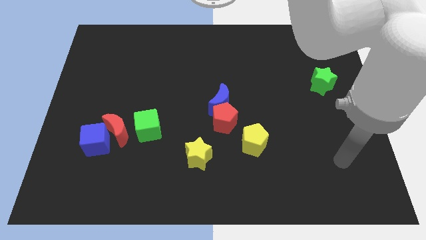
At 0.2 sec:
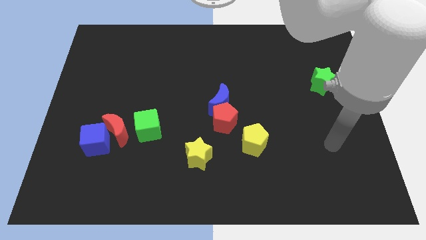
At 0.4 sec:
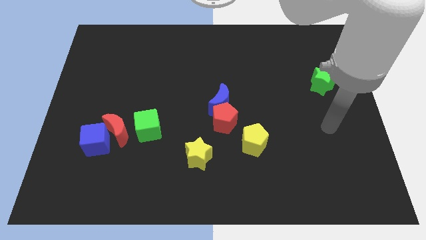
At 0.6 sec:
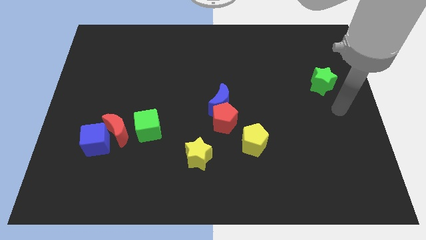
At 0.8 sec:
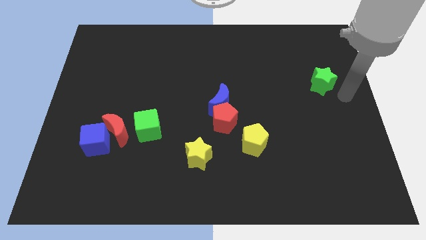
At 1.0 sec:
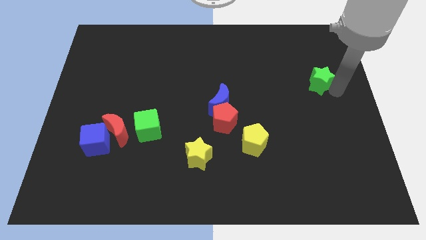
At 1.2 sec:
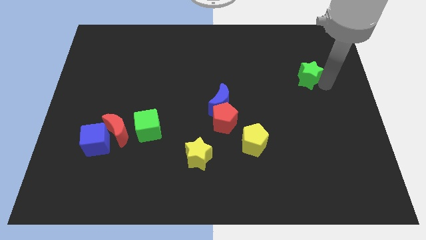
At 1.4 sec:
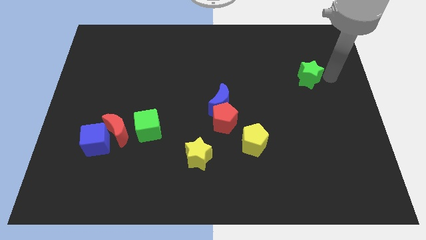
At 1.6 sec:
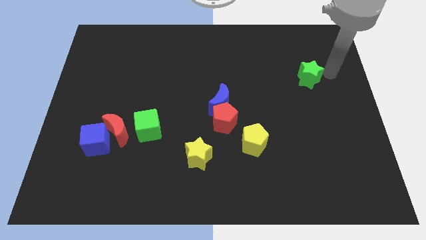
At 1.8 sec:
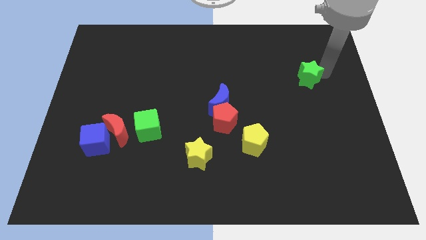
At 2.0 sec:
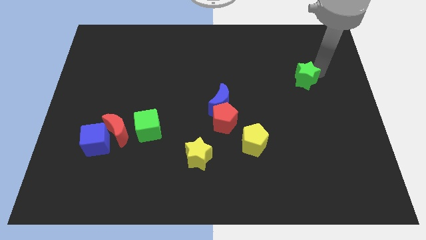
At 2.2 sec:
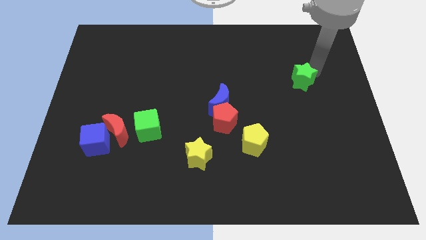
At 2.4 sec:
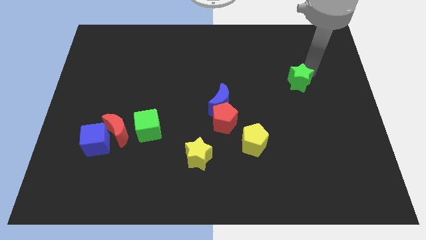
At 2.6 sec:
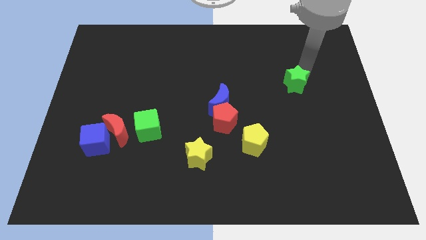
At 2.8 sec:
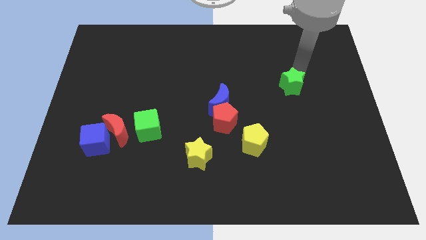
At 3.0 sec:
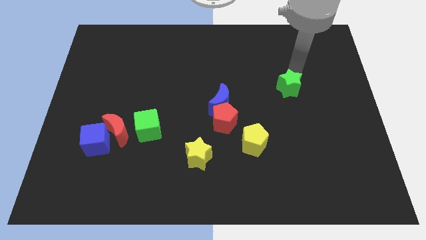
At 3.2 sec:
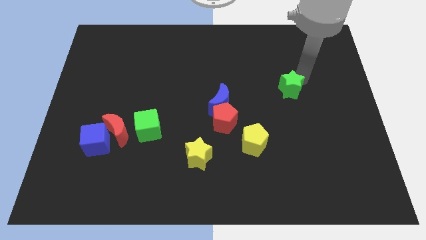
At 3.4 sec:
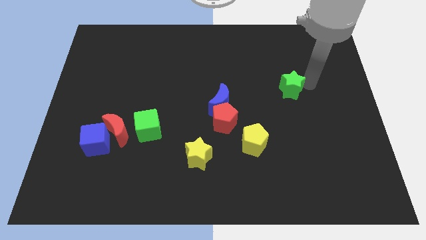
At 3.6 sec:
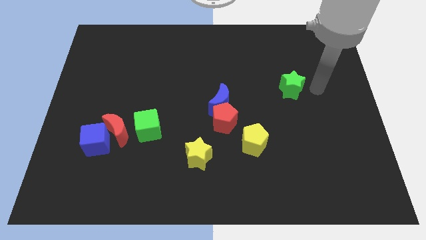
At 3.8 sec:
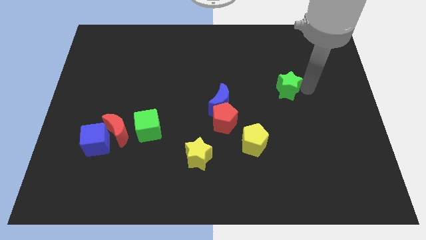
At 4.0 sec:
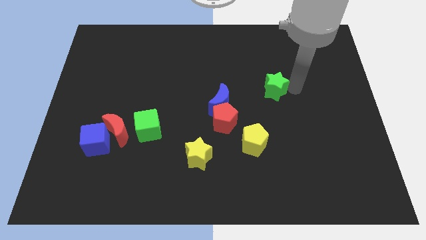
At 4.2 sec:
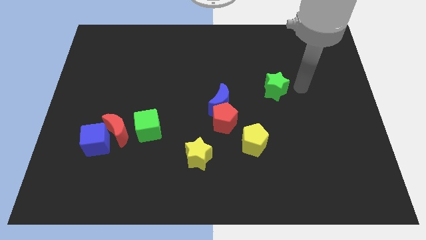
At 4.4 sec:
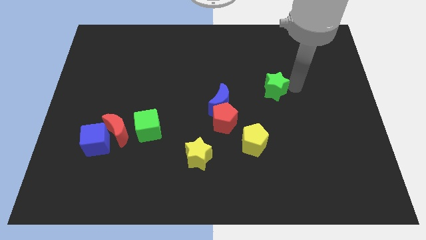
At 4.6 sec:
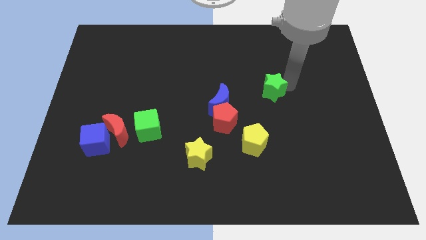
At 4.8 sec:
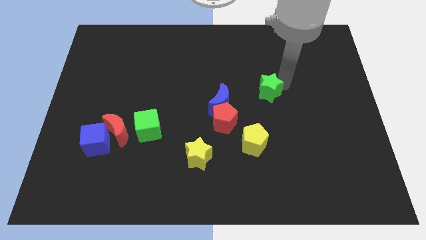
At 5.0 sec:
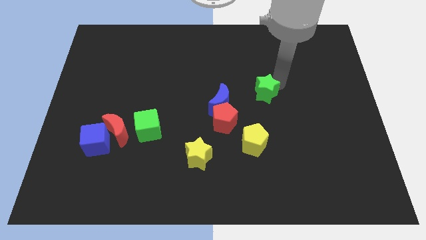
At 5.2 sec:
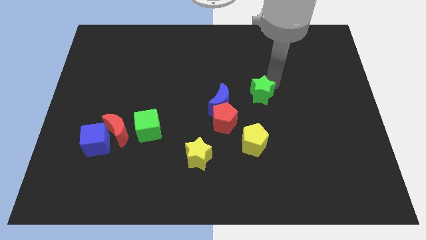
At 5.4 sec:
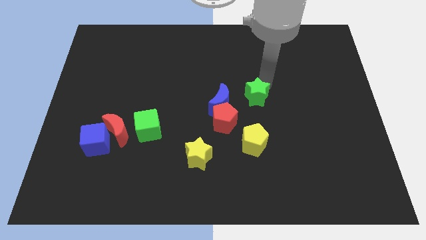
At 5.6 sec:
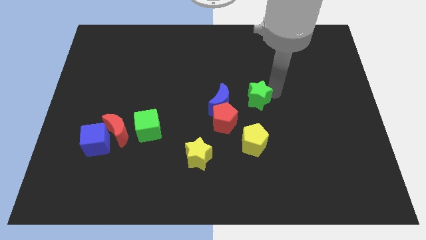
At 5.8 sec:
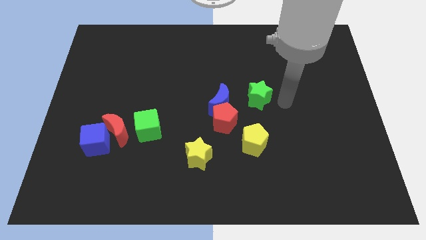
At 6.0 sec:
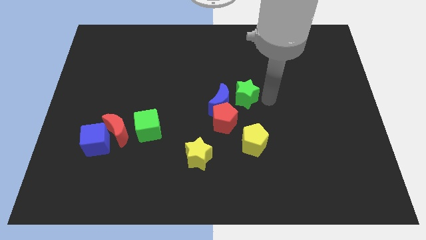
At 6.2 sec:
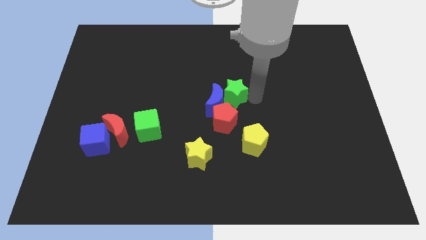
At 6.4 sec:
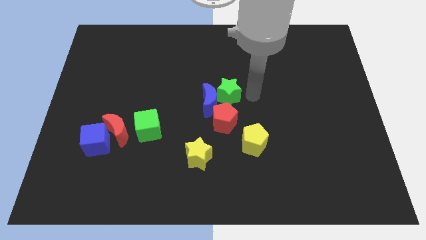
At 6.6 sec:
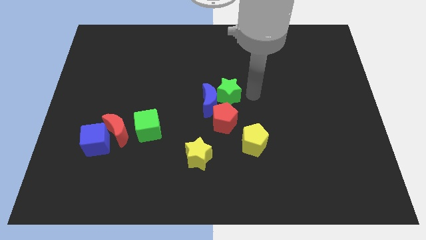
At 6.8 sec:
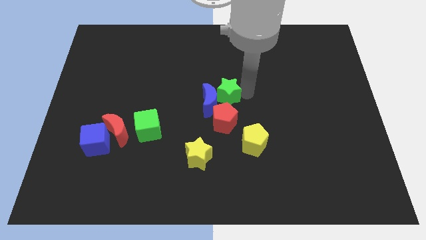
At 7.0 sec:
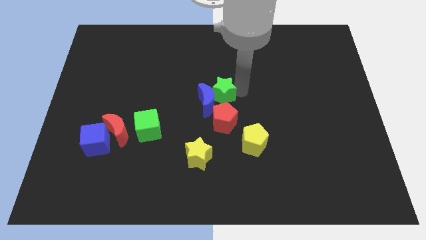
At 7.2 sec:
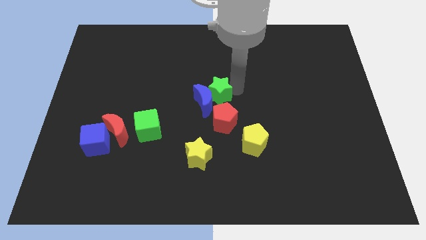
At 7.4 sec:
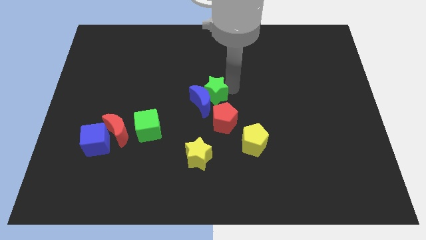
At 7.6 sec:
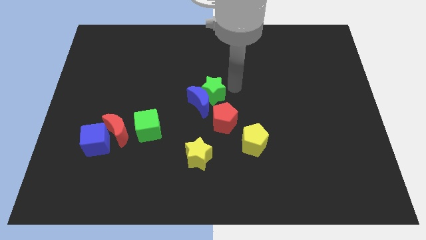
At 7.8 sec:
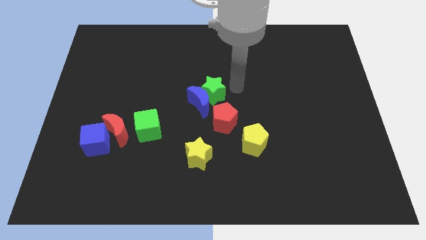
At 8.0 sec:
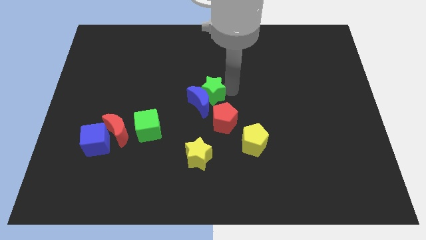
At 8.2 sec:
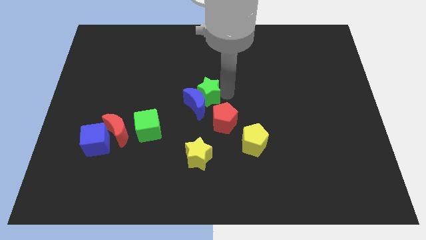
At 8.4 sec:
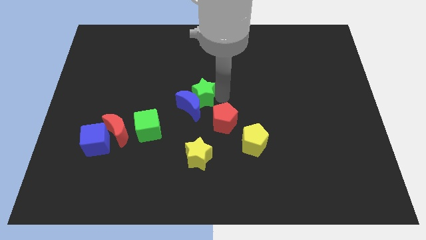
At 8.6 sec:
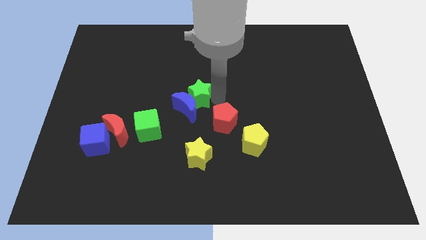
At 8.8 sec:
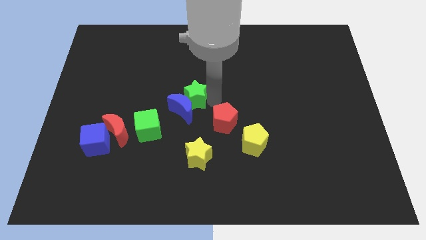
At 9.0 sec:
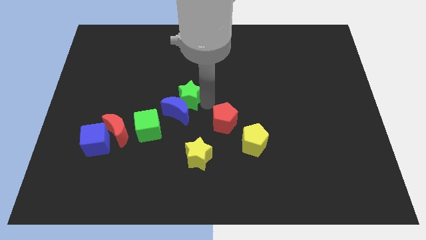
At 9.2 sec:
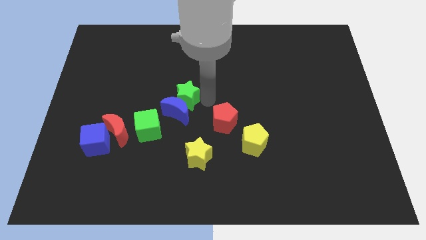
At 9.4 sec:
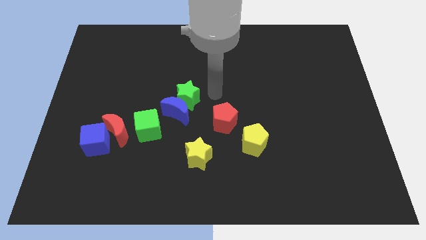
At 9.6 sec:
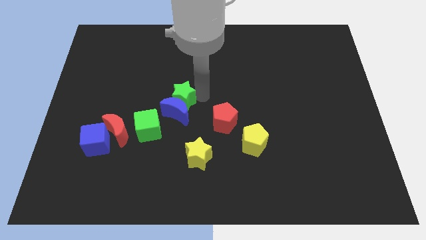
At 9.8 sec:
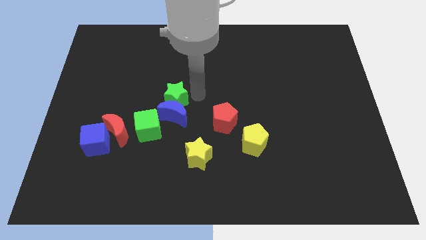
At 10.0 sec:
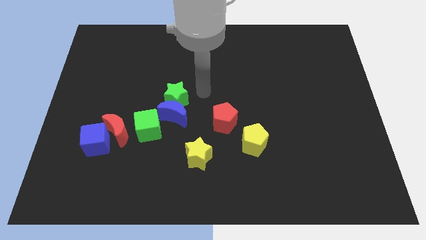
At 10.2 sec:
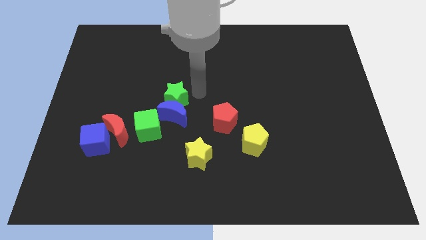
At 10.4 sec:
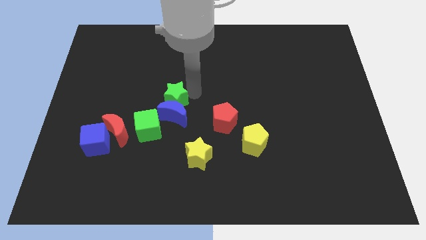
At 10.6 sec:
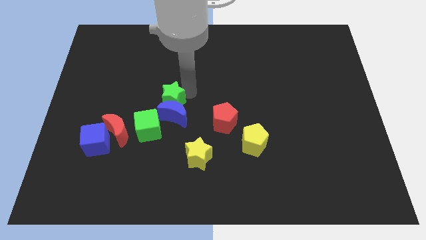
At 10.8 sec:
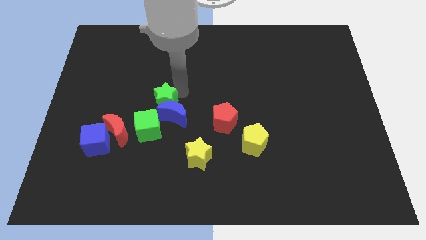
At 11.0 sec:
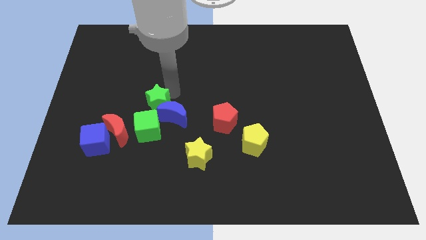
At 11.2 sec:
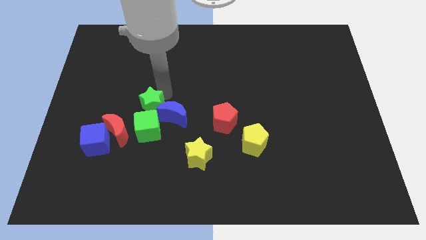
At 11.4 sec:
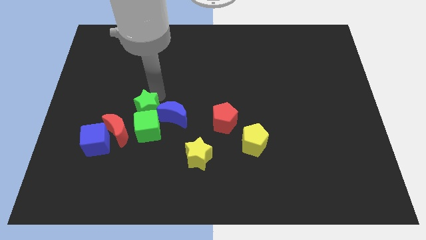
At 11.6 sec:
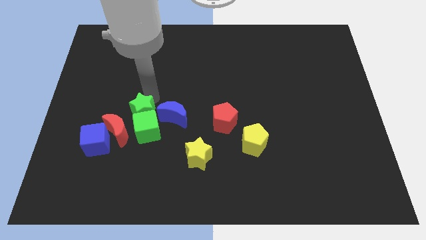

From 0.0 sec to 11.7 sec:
put the green star to the top right of the blue cube
